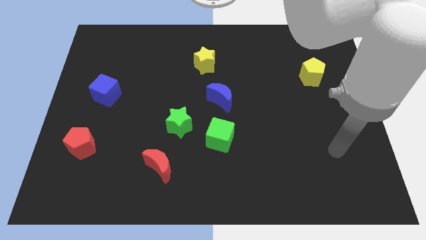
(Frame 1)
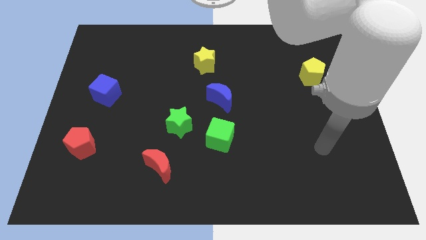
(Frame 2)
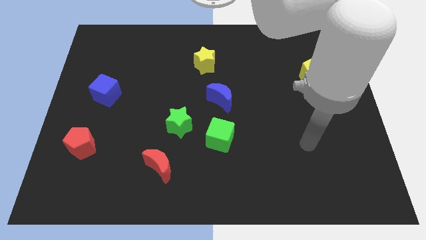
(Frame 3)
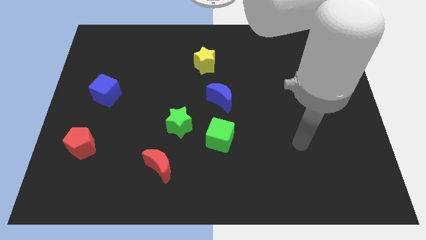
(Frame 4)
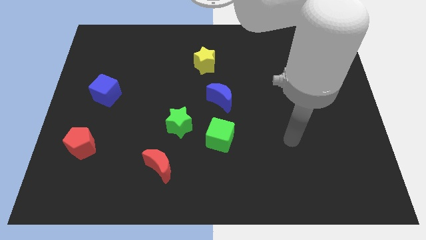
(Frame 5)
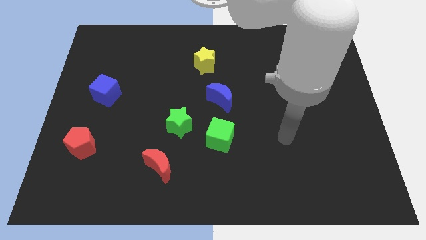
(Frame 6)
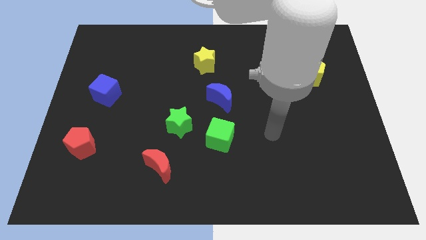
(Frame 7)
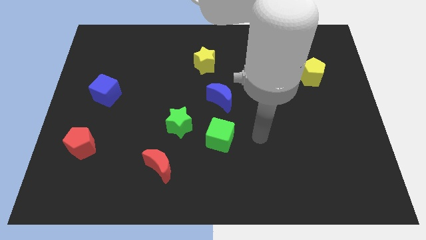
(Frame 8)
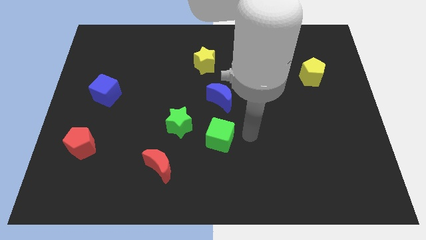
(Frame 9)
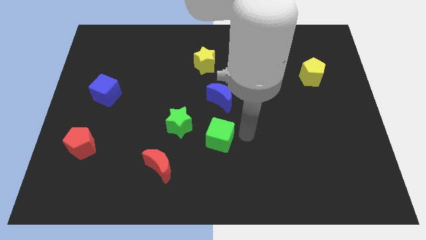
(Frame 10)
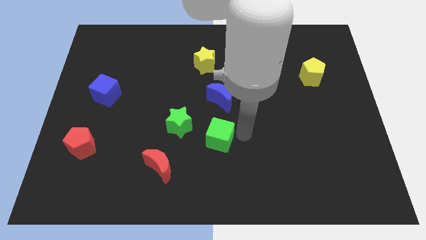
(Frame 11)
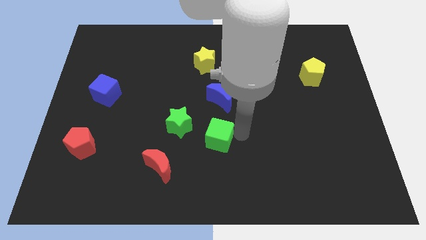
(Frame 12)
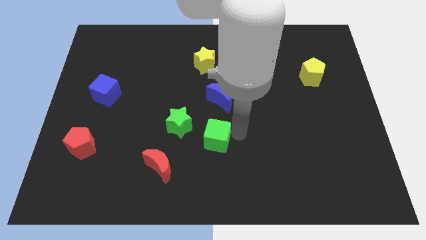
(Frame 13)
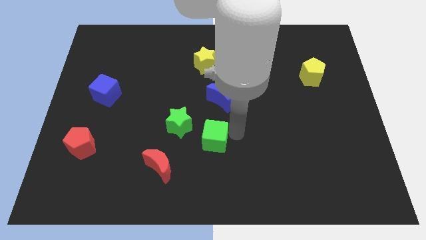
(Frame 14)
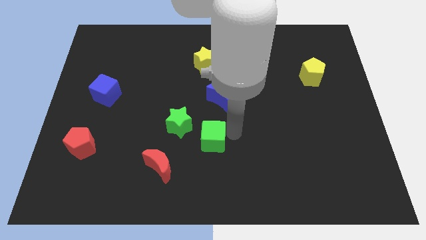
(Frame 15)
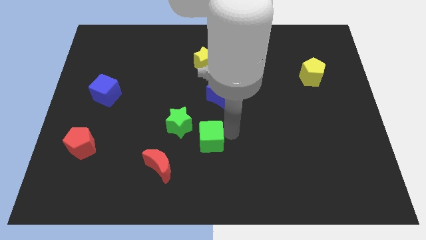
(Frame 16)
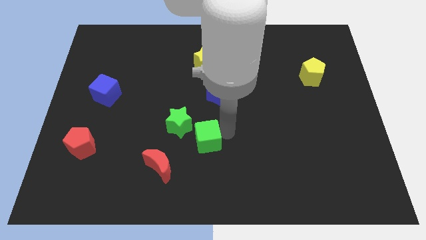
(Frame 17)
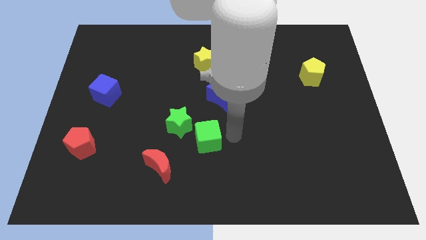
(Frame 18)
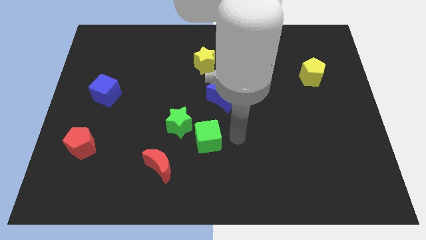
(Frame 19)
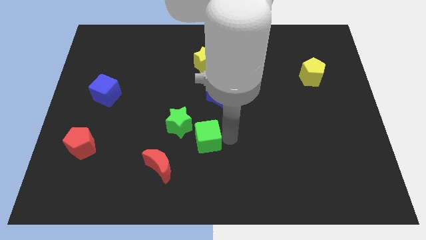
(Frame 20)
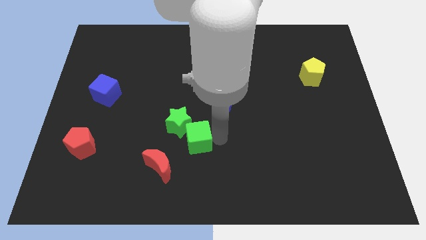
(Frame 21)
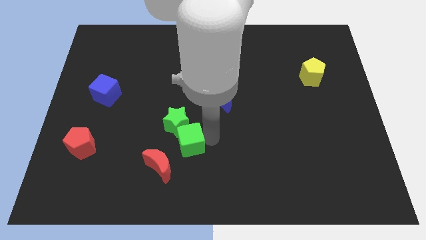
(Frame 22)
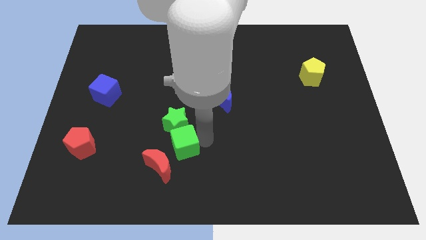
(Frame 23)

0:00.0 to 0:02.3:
slightly move the green cube left

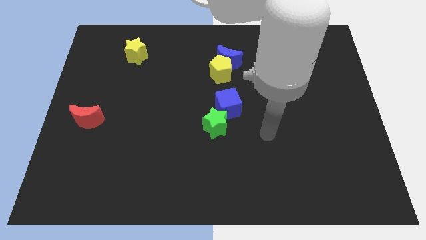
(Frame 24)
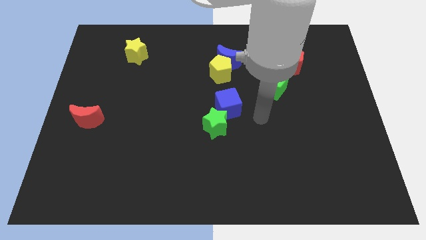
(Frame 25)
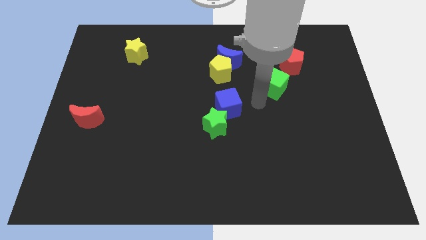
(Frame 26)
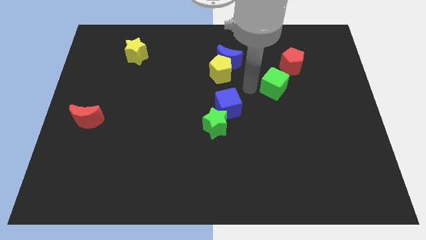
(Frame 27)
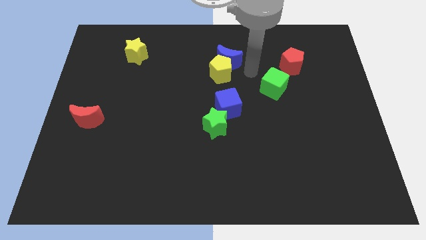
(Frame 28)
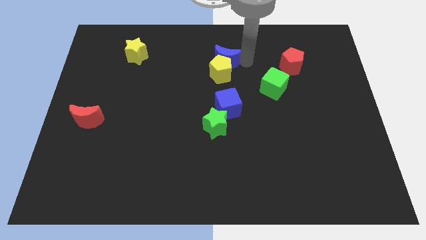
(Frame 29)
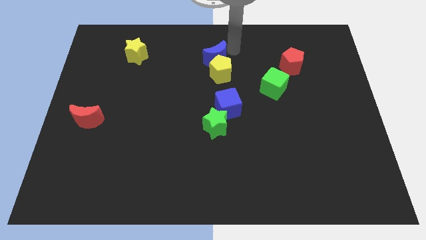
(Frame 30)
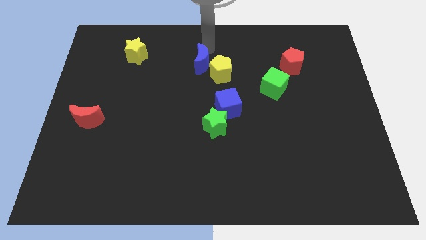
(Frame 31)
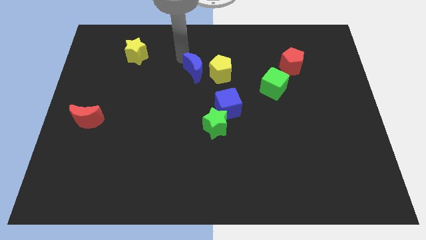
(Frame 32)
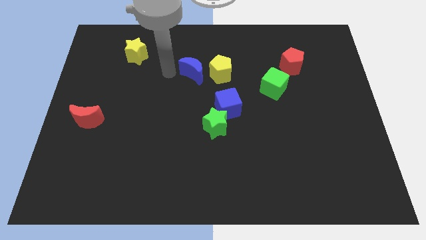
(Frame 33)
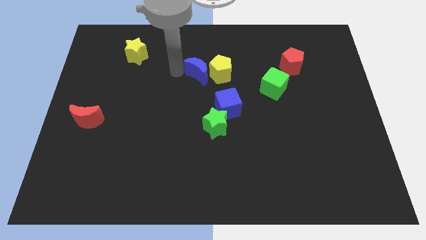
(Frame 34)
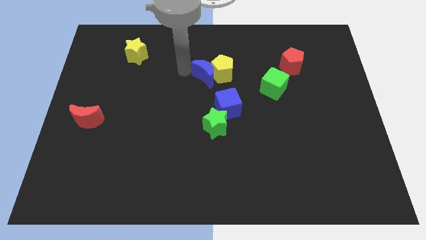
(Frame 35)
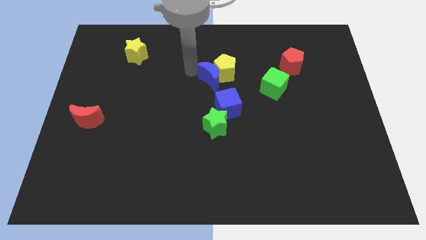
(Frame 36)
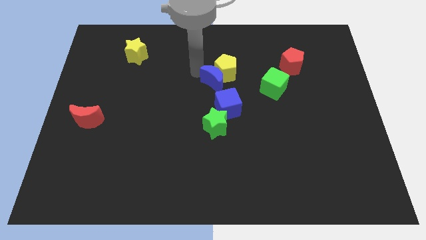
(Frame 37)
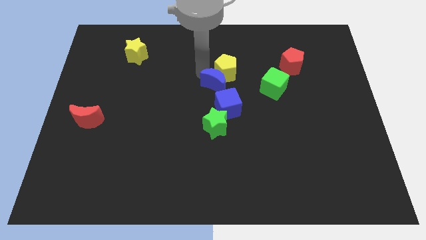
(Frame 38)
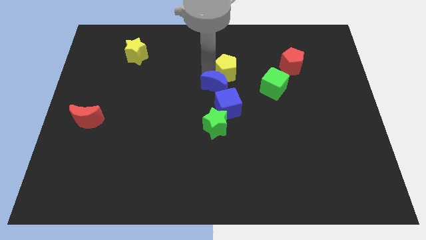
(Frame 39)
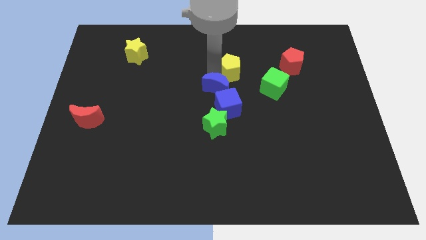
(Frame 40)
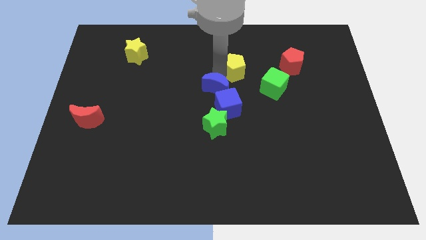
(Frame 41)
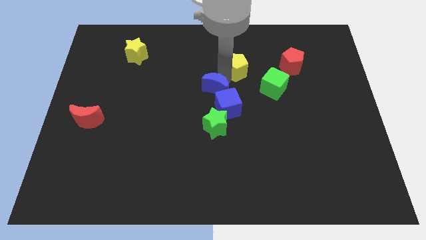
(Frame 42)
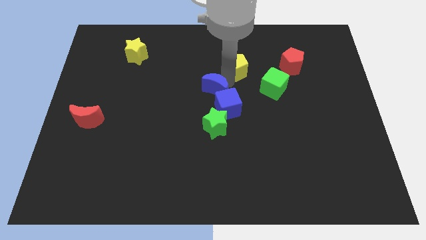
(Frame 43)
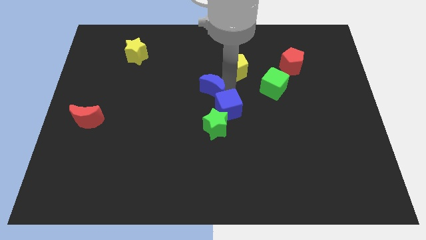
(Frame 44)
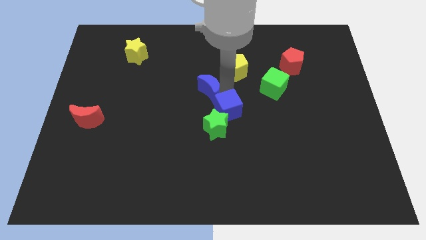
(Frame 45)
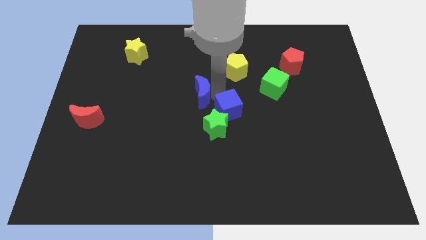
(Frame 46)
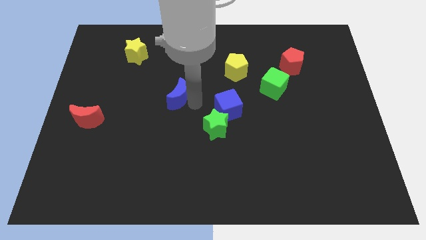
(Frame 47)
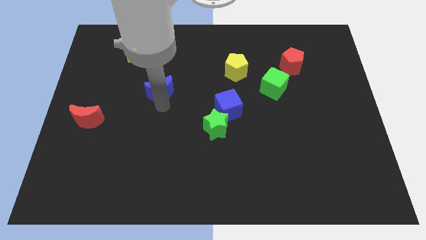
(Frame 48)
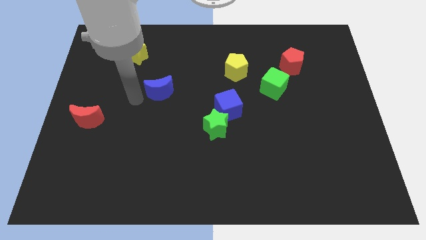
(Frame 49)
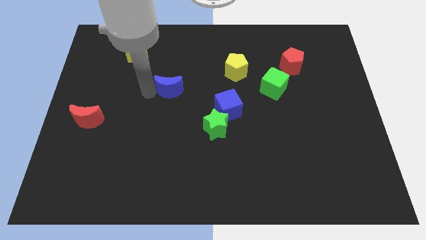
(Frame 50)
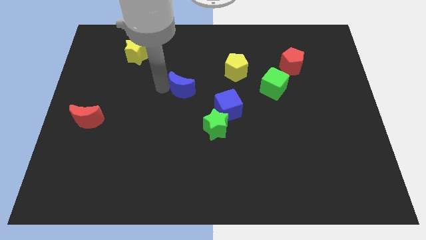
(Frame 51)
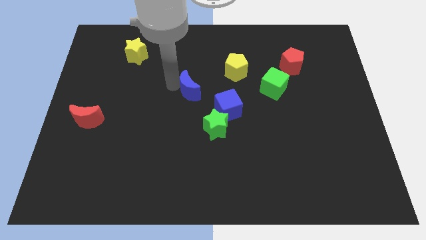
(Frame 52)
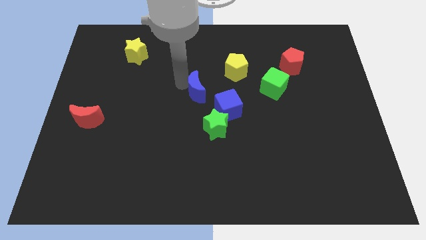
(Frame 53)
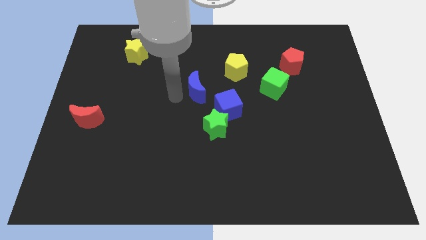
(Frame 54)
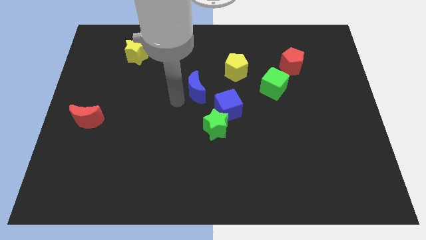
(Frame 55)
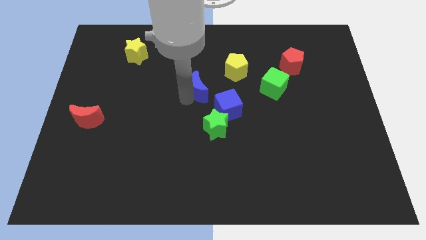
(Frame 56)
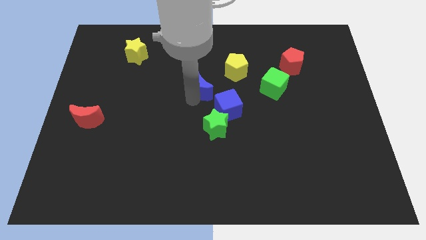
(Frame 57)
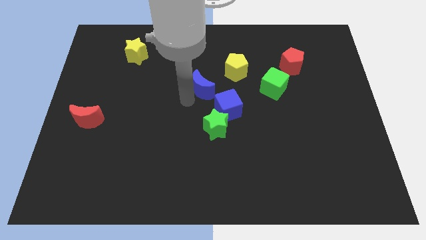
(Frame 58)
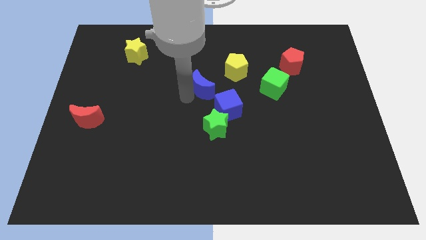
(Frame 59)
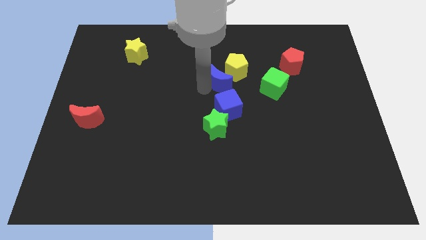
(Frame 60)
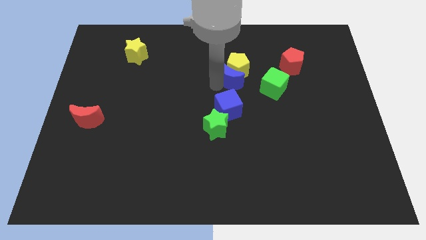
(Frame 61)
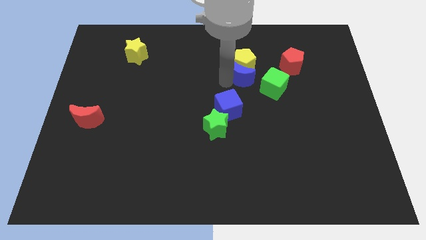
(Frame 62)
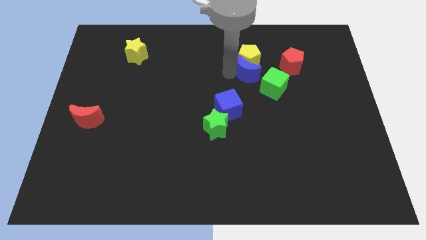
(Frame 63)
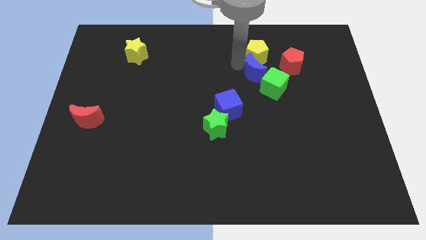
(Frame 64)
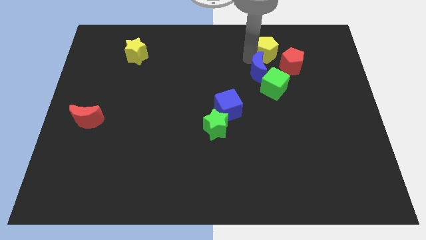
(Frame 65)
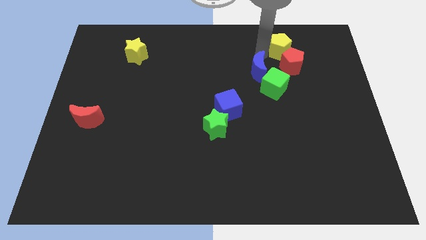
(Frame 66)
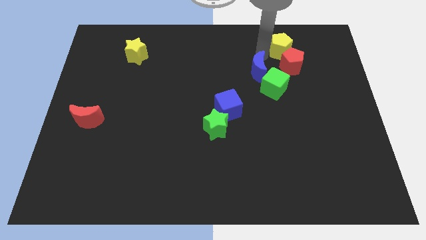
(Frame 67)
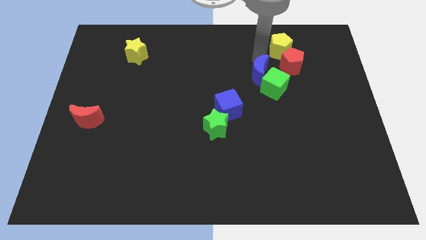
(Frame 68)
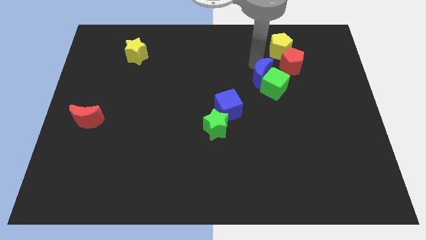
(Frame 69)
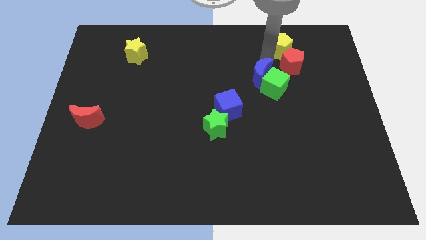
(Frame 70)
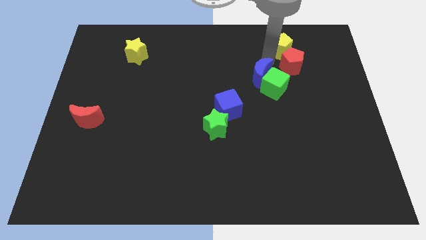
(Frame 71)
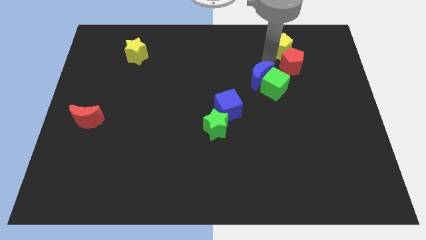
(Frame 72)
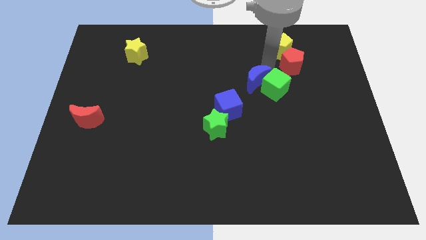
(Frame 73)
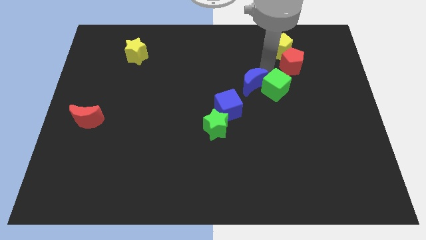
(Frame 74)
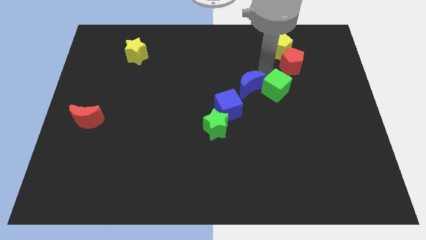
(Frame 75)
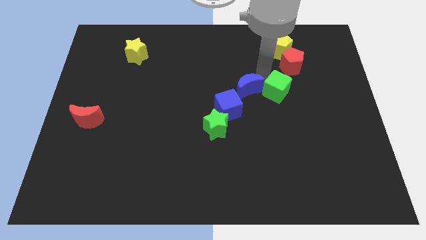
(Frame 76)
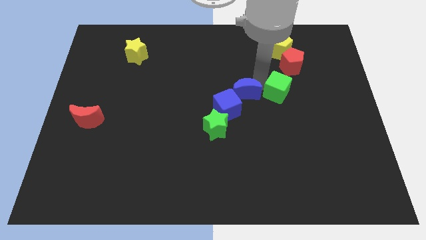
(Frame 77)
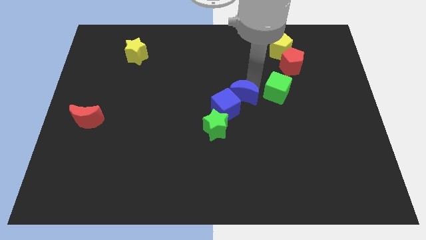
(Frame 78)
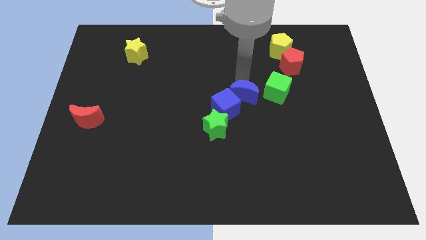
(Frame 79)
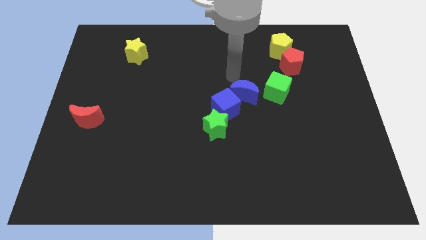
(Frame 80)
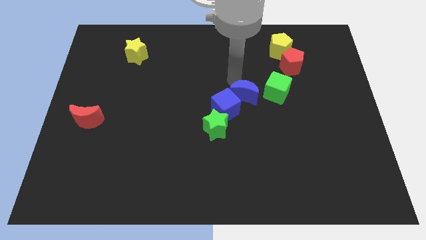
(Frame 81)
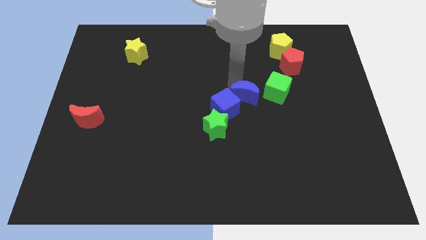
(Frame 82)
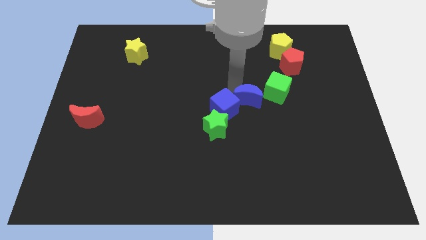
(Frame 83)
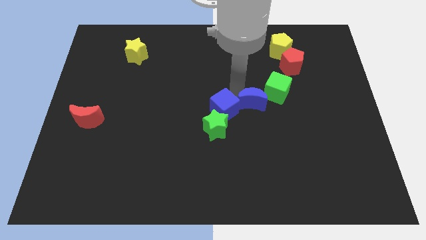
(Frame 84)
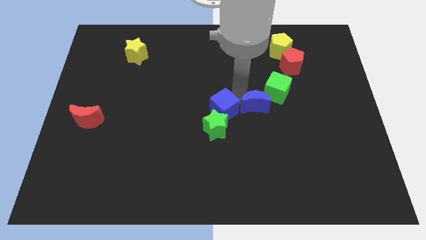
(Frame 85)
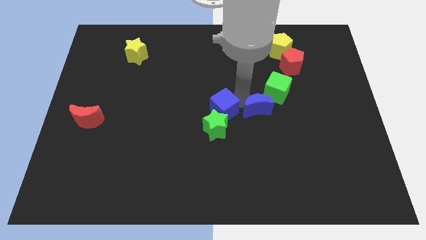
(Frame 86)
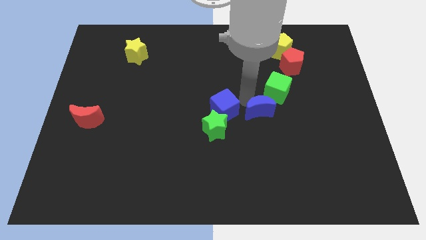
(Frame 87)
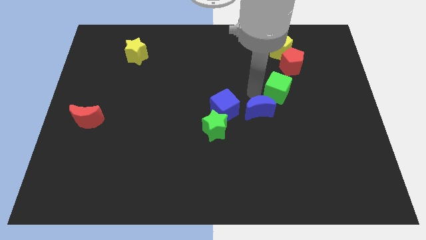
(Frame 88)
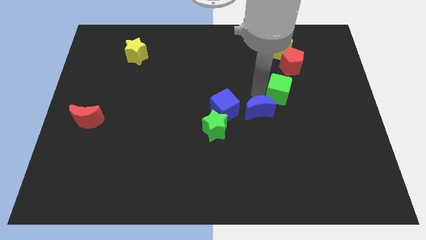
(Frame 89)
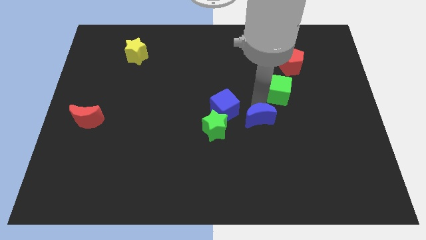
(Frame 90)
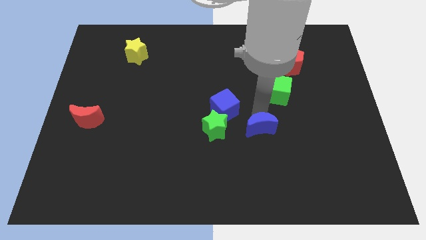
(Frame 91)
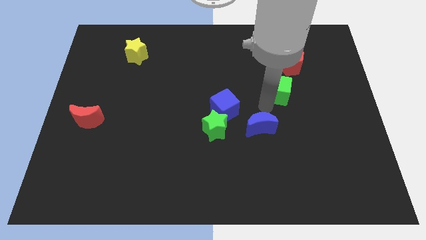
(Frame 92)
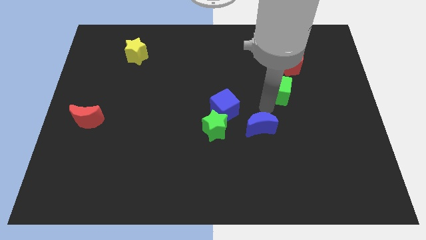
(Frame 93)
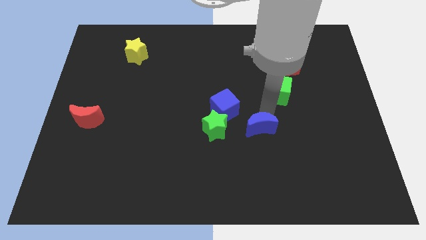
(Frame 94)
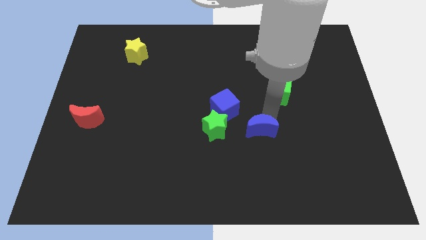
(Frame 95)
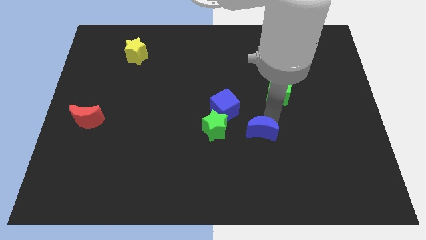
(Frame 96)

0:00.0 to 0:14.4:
slide the blue moon down
